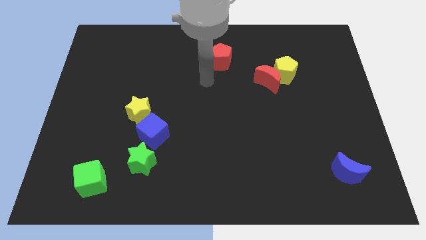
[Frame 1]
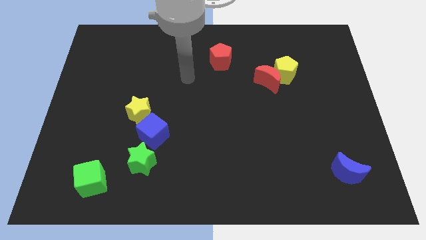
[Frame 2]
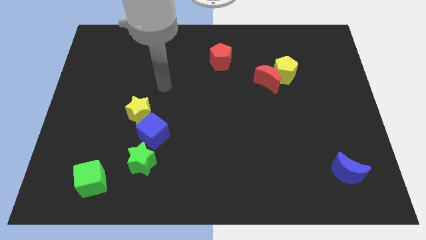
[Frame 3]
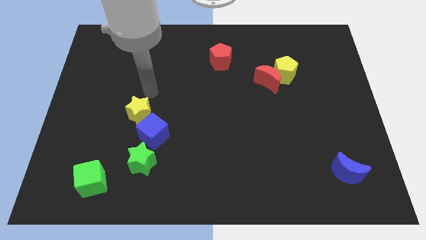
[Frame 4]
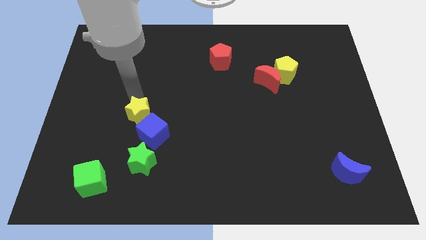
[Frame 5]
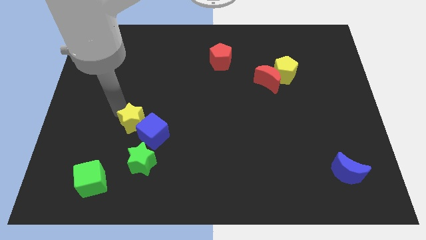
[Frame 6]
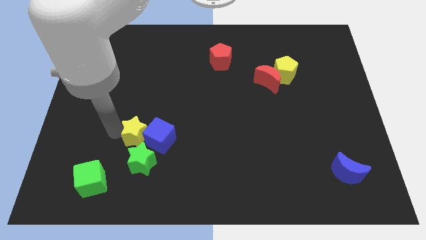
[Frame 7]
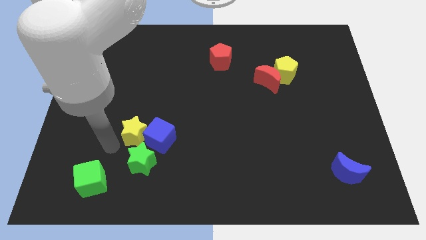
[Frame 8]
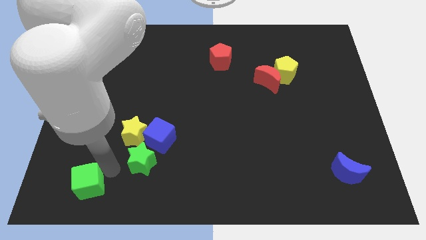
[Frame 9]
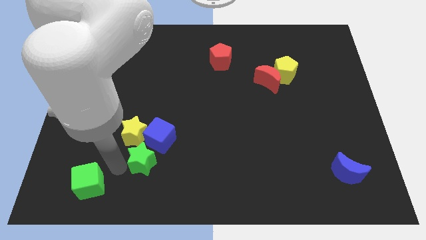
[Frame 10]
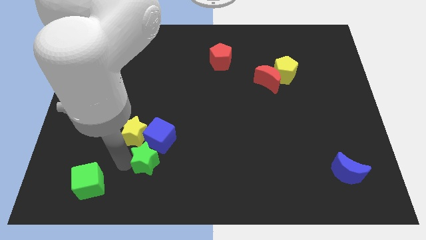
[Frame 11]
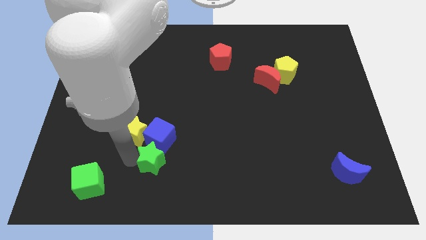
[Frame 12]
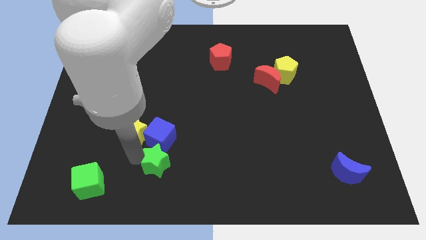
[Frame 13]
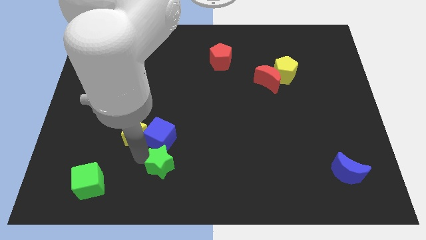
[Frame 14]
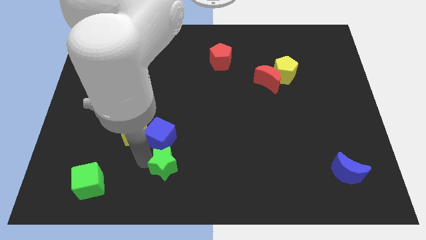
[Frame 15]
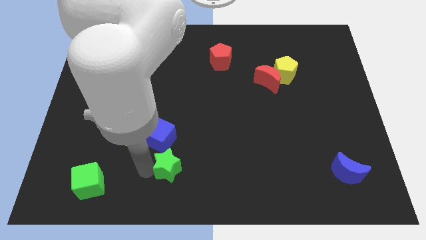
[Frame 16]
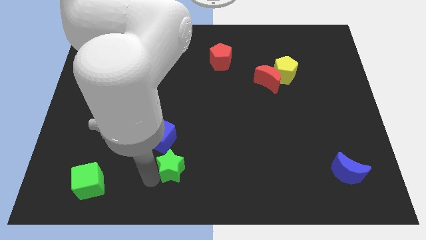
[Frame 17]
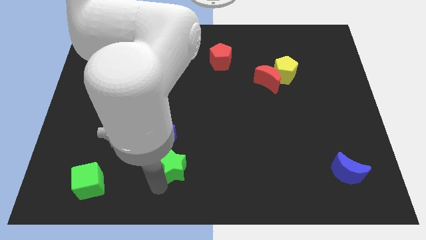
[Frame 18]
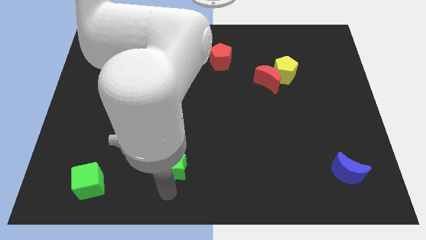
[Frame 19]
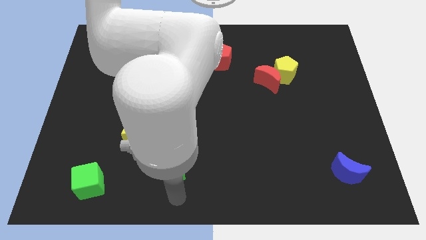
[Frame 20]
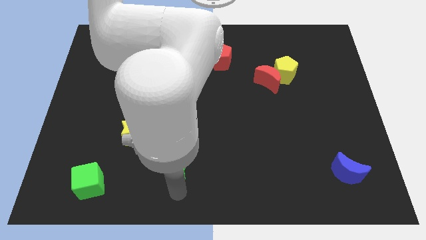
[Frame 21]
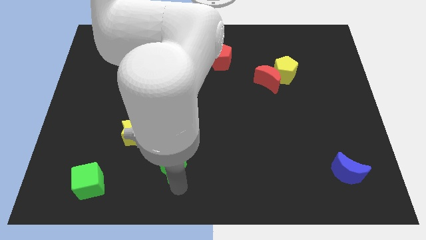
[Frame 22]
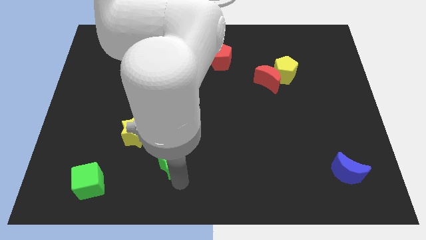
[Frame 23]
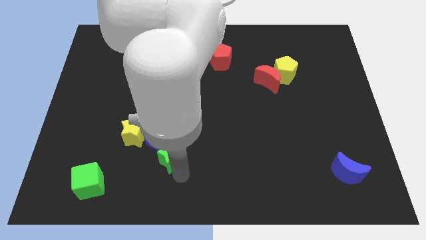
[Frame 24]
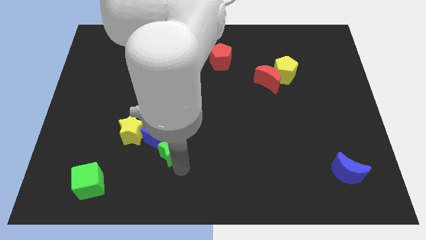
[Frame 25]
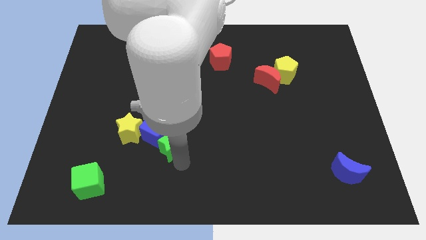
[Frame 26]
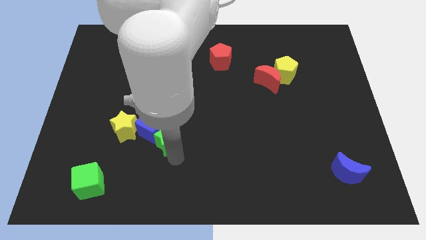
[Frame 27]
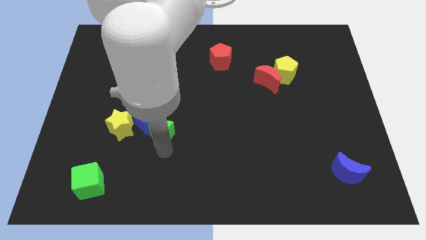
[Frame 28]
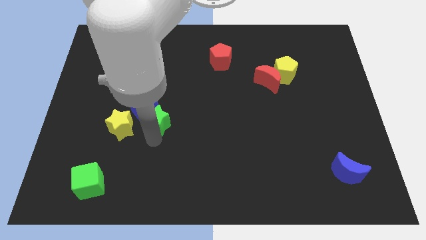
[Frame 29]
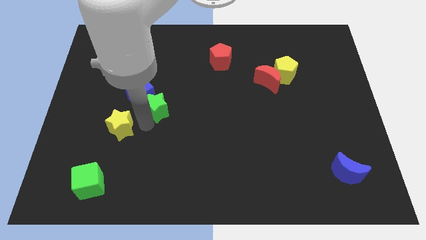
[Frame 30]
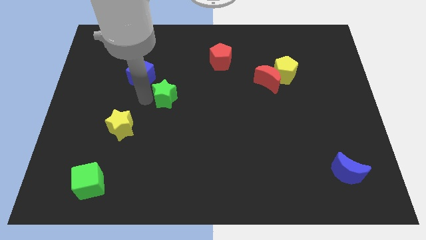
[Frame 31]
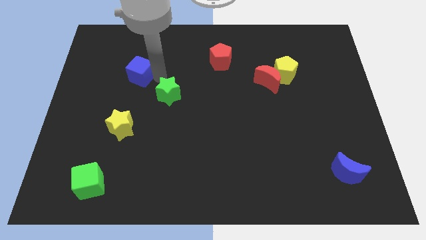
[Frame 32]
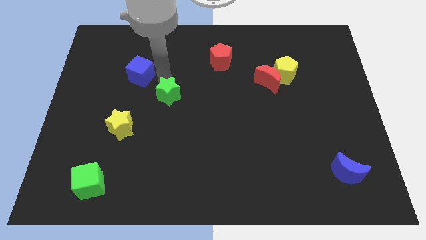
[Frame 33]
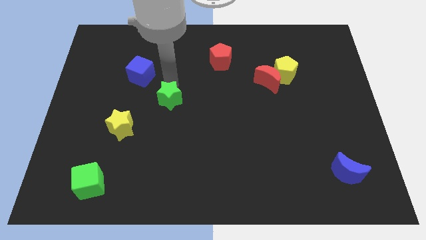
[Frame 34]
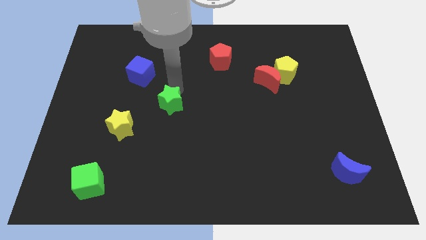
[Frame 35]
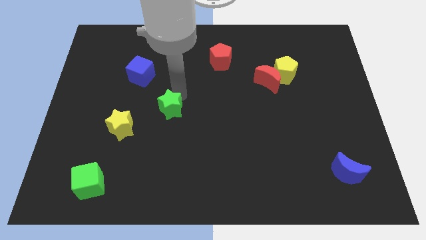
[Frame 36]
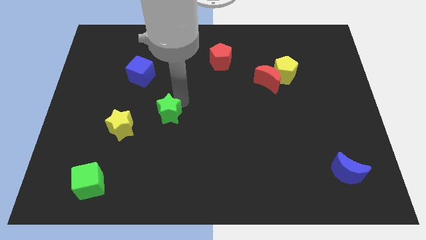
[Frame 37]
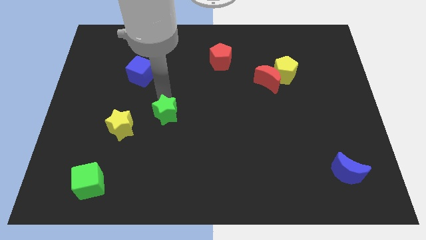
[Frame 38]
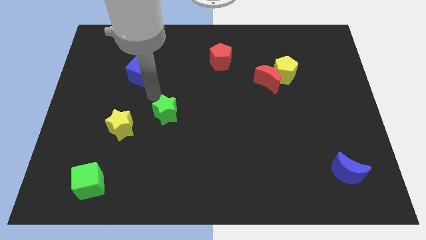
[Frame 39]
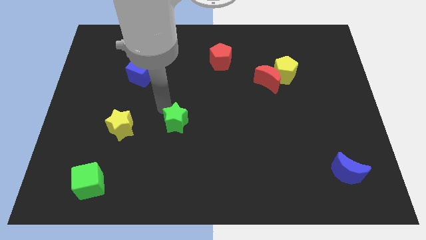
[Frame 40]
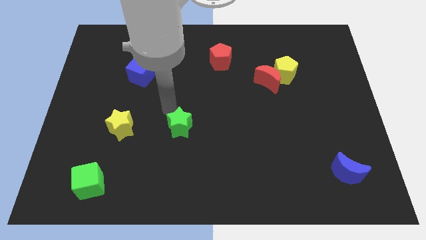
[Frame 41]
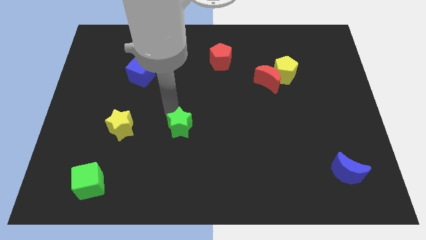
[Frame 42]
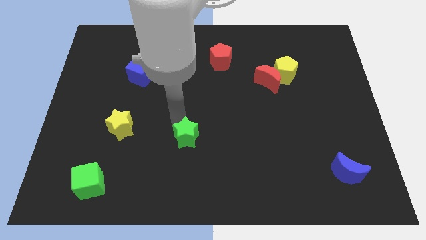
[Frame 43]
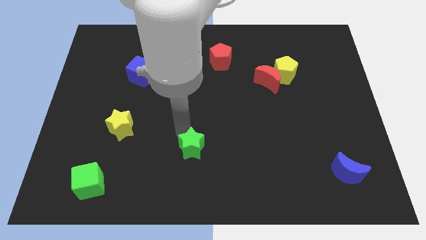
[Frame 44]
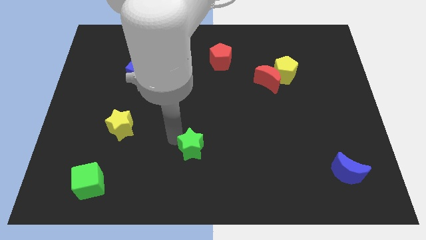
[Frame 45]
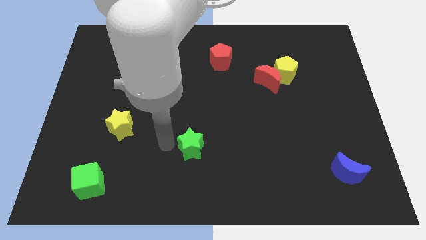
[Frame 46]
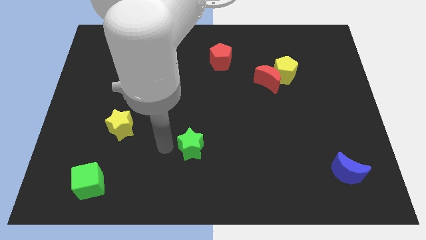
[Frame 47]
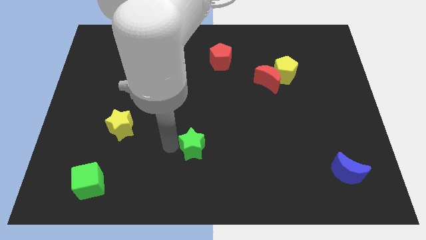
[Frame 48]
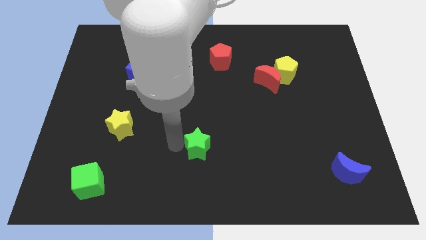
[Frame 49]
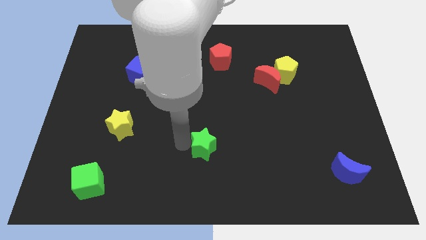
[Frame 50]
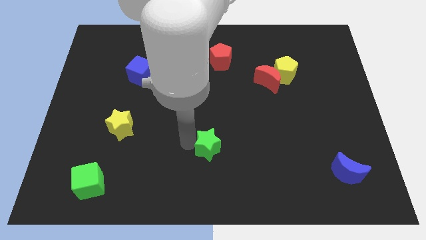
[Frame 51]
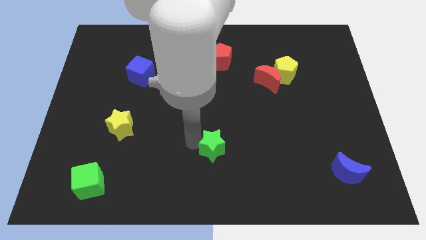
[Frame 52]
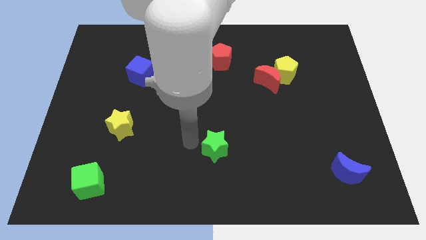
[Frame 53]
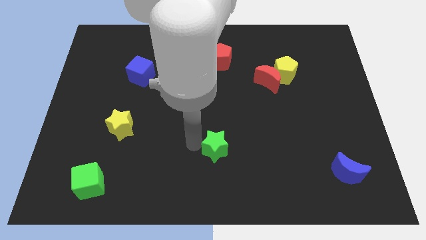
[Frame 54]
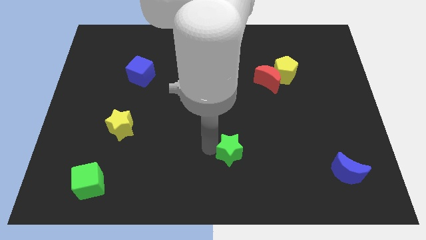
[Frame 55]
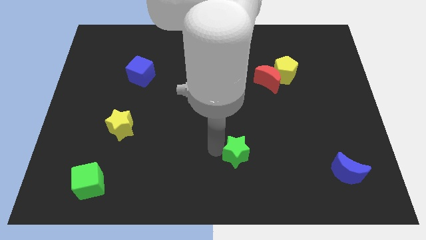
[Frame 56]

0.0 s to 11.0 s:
push the green star to the right

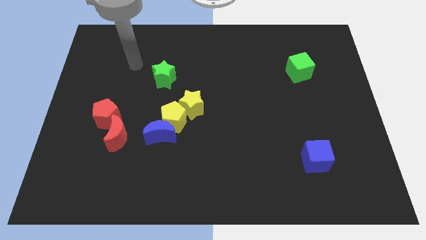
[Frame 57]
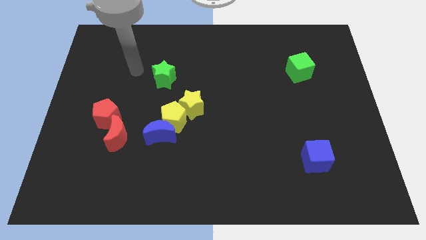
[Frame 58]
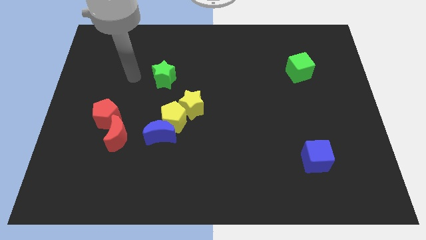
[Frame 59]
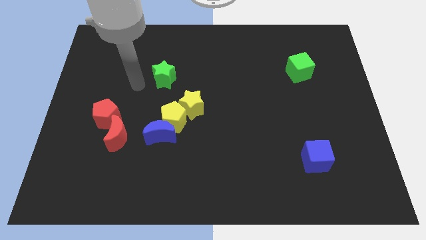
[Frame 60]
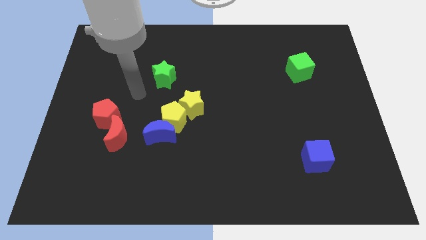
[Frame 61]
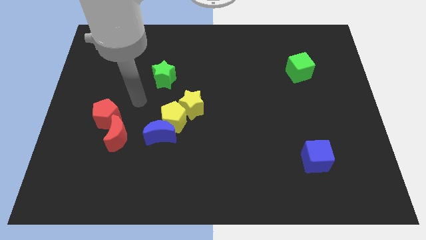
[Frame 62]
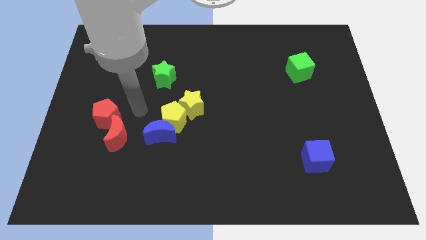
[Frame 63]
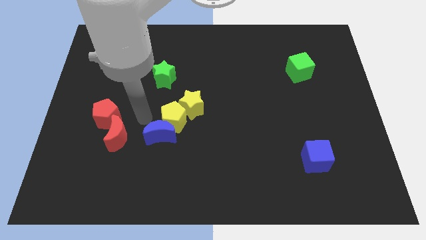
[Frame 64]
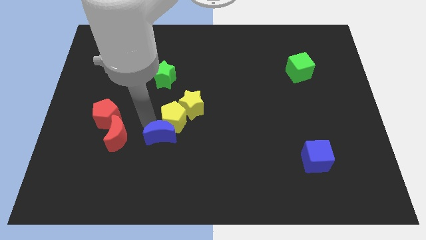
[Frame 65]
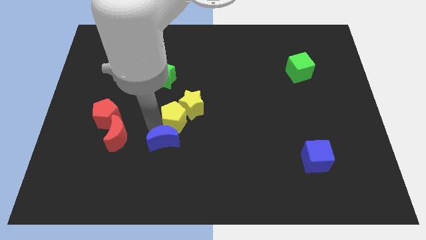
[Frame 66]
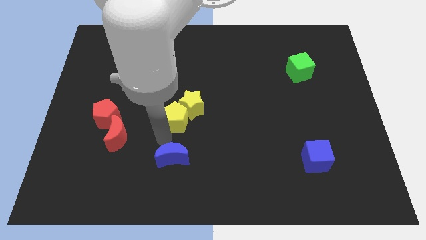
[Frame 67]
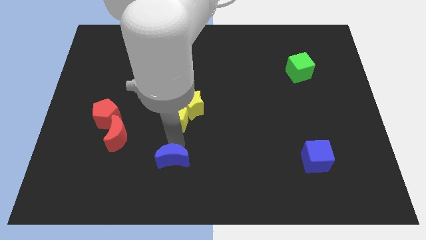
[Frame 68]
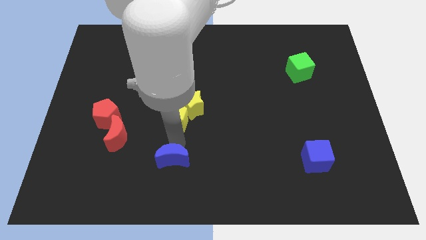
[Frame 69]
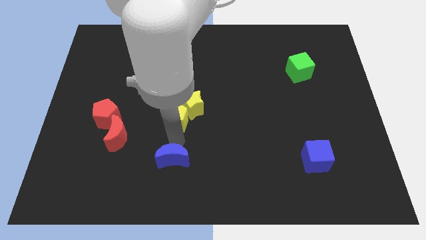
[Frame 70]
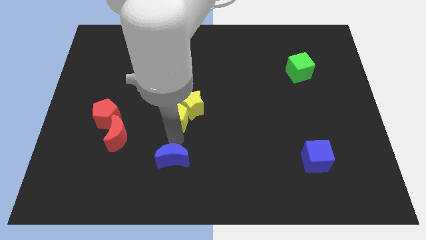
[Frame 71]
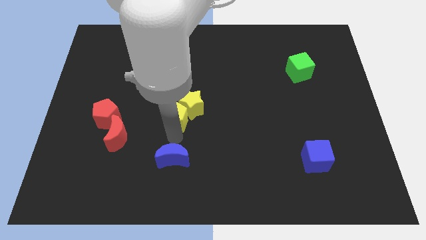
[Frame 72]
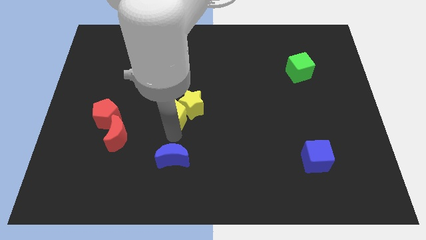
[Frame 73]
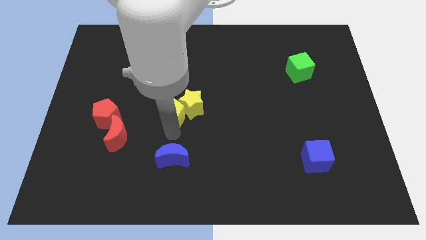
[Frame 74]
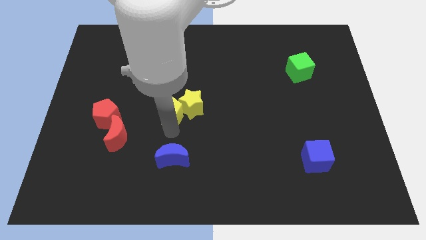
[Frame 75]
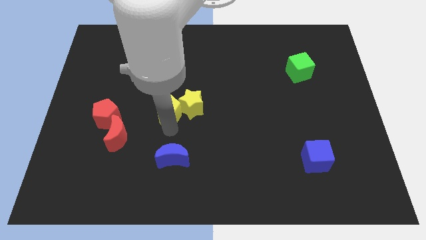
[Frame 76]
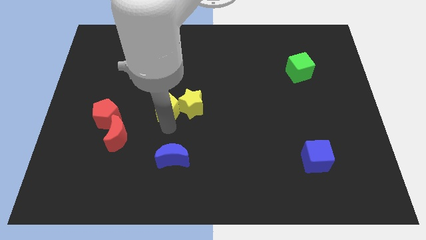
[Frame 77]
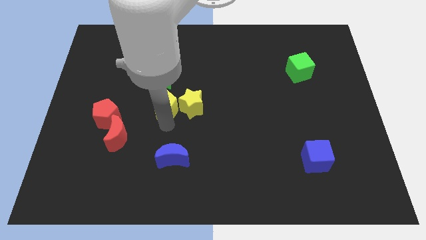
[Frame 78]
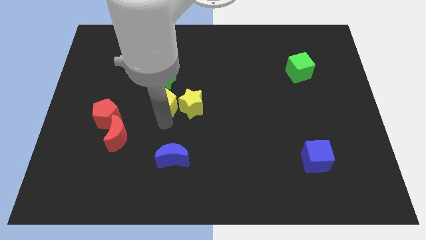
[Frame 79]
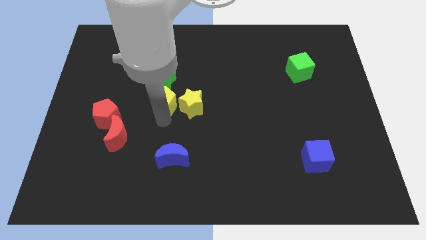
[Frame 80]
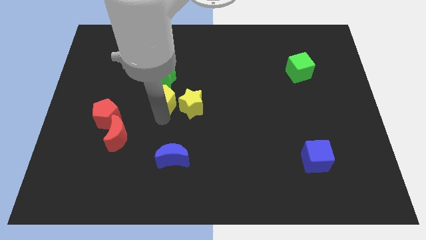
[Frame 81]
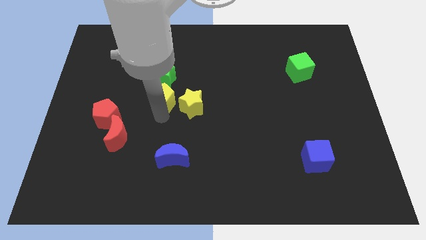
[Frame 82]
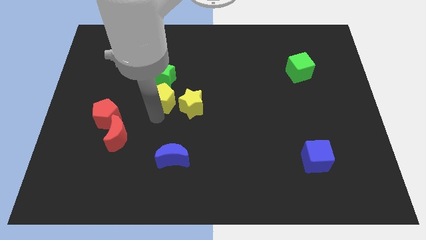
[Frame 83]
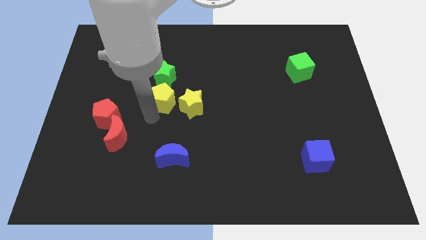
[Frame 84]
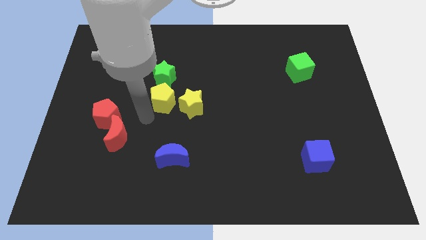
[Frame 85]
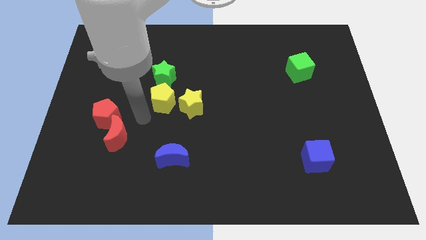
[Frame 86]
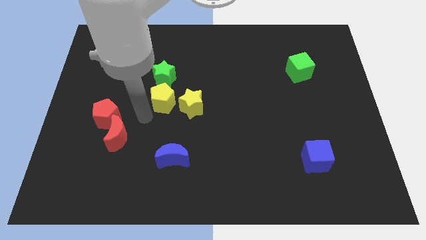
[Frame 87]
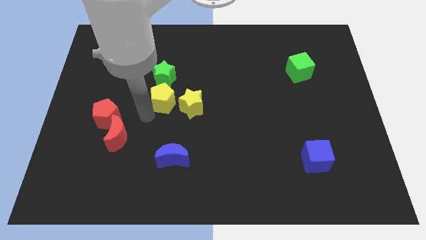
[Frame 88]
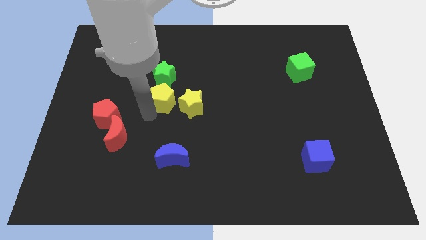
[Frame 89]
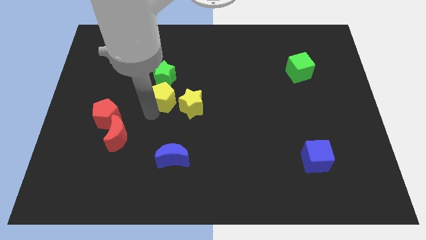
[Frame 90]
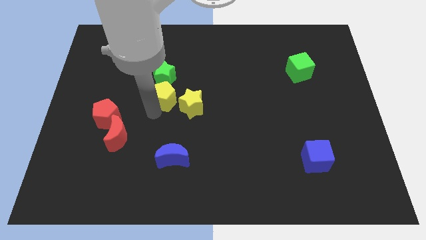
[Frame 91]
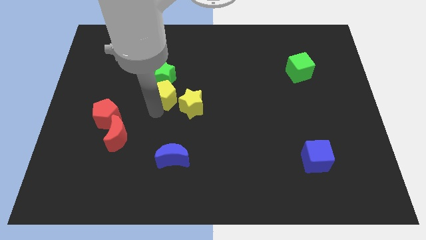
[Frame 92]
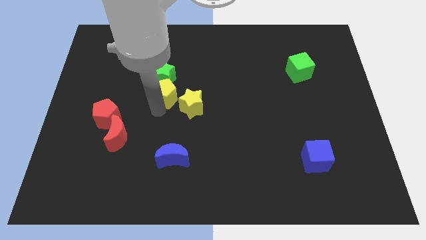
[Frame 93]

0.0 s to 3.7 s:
slightly push the yellow pentagon upwards
